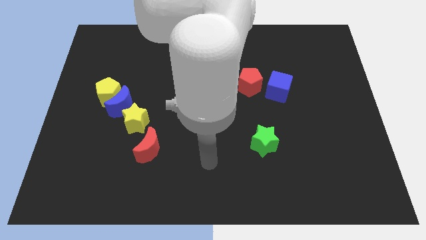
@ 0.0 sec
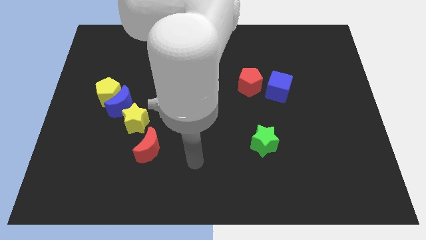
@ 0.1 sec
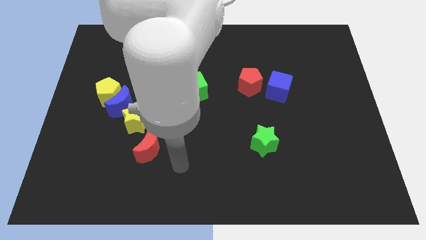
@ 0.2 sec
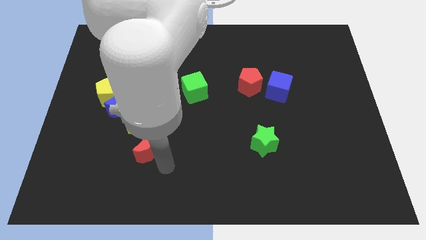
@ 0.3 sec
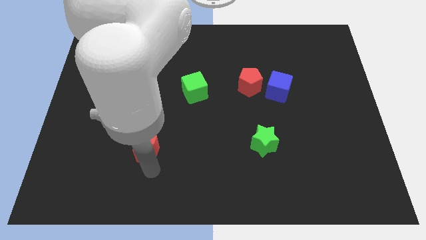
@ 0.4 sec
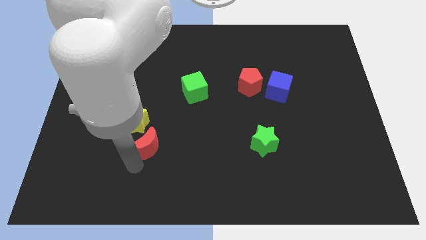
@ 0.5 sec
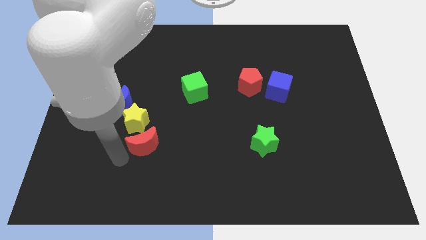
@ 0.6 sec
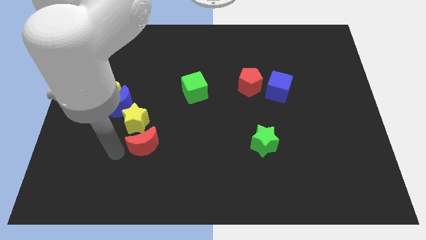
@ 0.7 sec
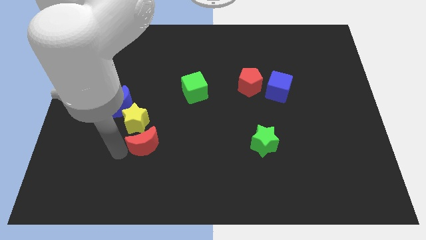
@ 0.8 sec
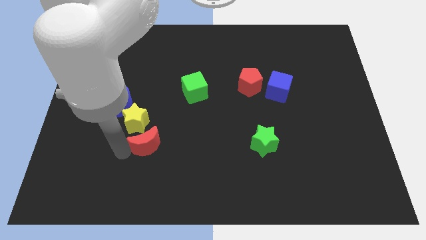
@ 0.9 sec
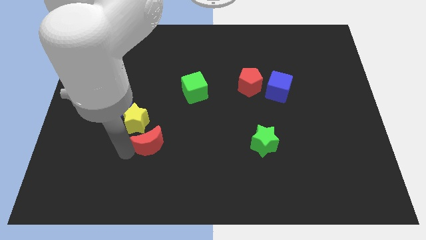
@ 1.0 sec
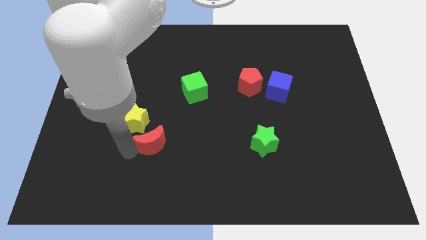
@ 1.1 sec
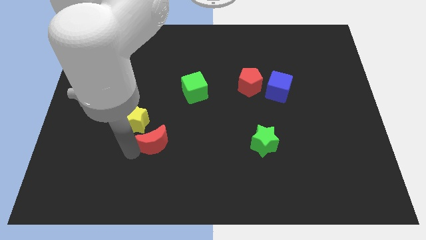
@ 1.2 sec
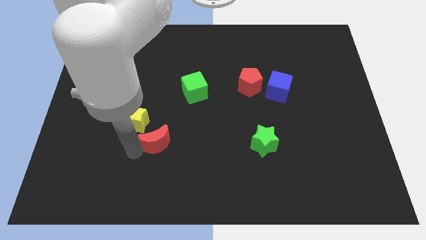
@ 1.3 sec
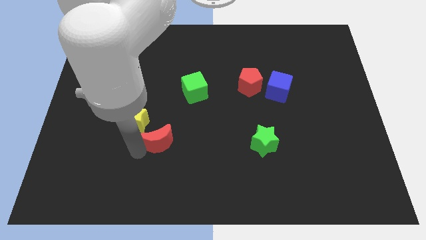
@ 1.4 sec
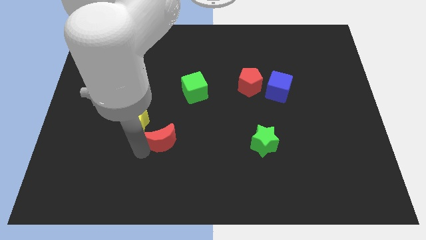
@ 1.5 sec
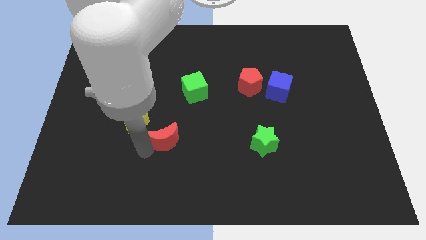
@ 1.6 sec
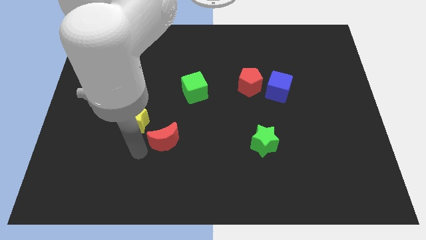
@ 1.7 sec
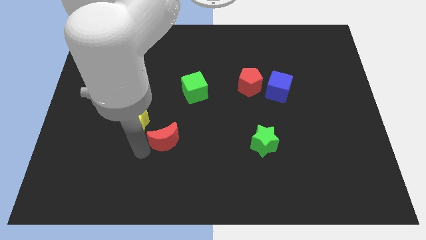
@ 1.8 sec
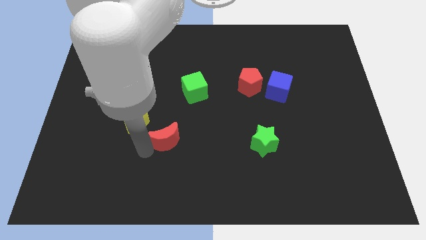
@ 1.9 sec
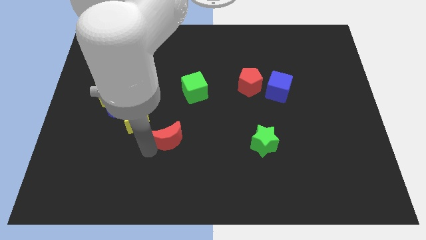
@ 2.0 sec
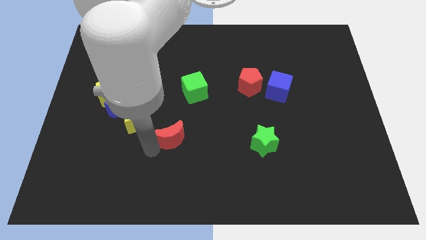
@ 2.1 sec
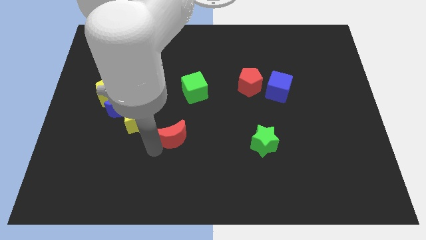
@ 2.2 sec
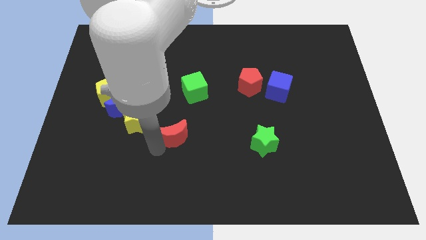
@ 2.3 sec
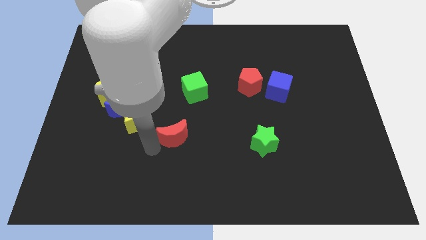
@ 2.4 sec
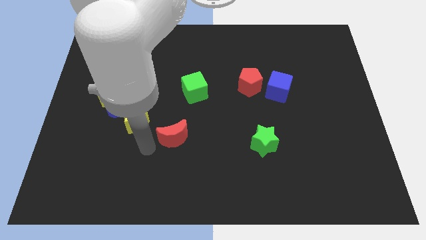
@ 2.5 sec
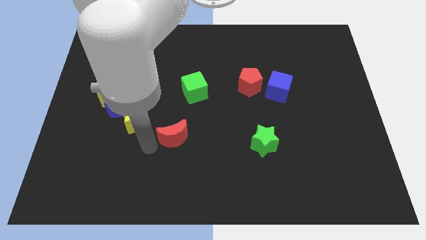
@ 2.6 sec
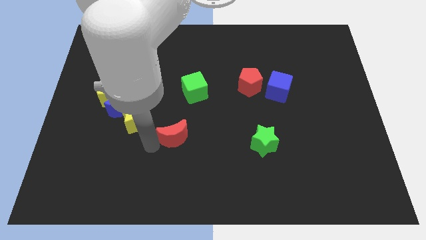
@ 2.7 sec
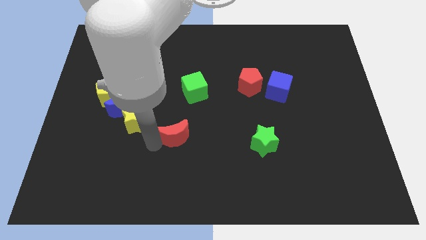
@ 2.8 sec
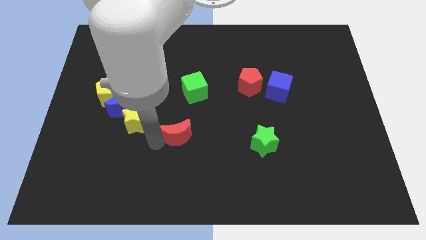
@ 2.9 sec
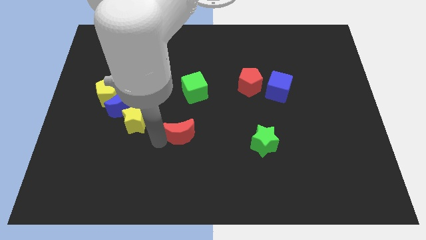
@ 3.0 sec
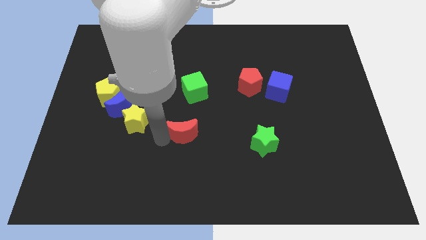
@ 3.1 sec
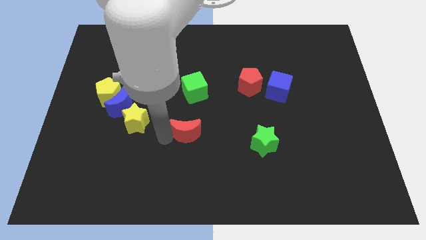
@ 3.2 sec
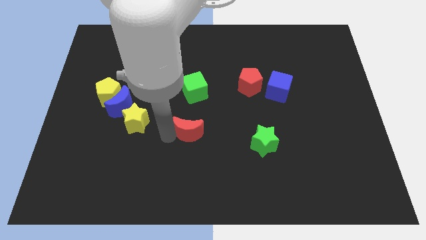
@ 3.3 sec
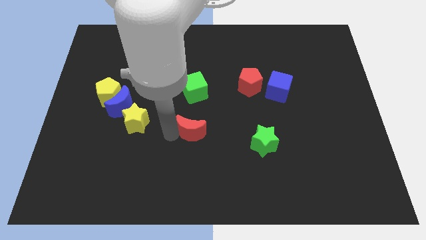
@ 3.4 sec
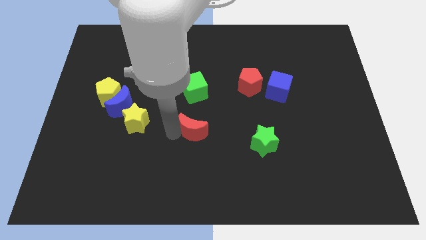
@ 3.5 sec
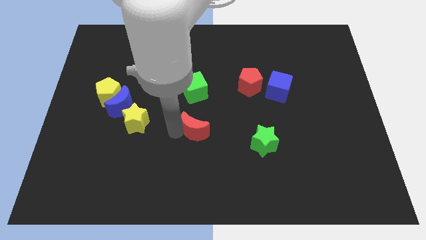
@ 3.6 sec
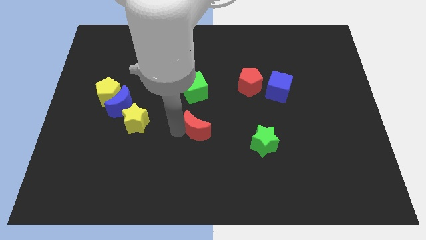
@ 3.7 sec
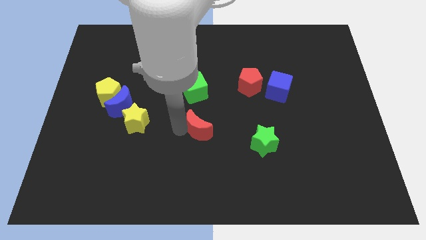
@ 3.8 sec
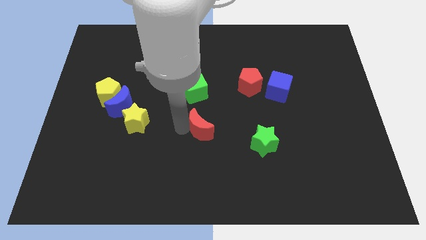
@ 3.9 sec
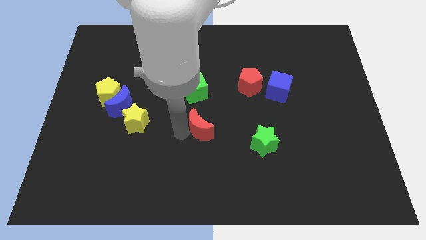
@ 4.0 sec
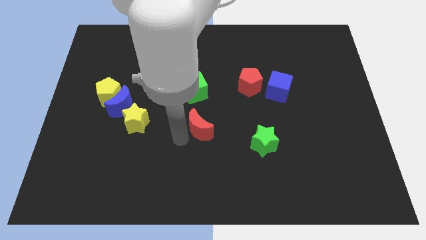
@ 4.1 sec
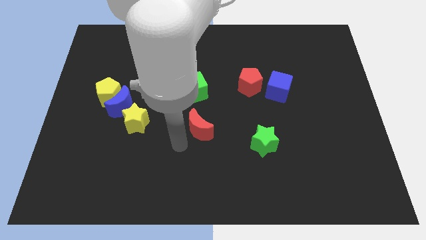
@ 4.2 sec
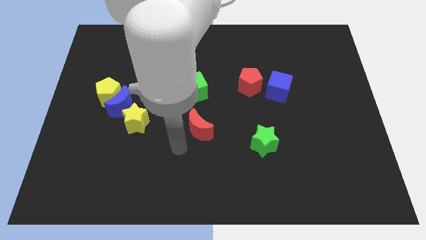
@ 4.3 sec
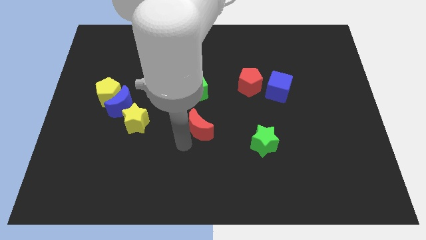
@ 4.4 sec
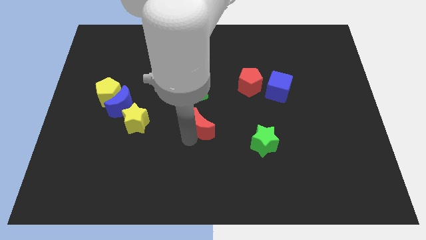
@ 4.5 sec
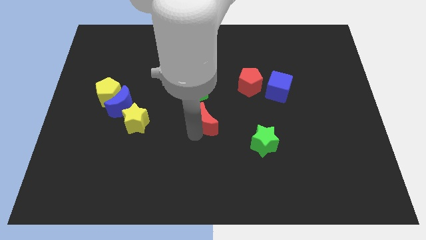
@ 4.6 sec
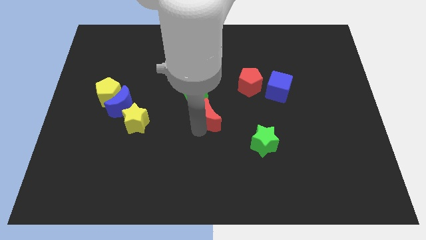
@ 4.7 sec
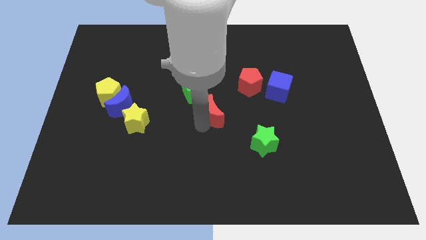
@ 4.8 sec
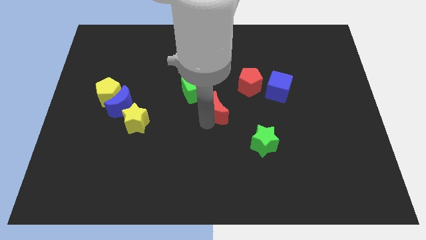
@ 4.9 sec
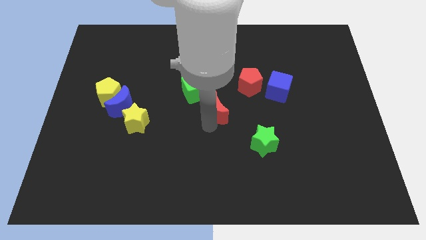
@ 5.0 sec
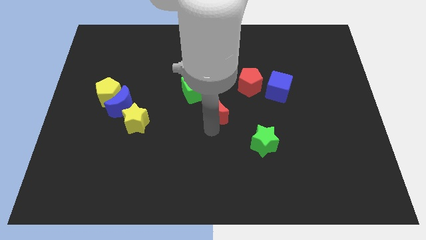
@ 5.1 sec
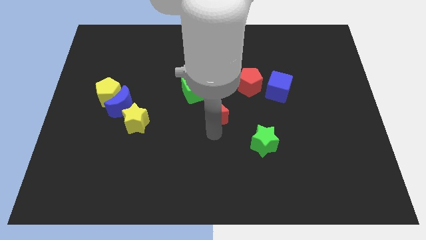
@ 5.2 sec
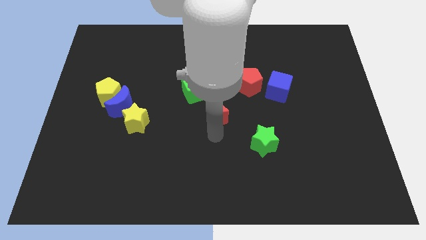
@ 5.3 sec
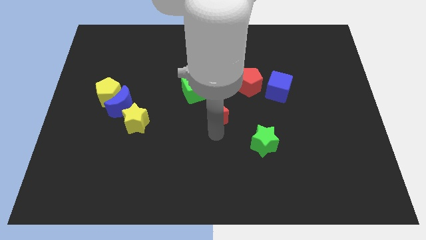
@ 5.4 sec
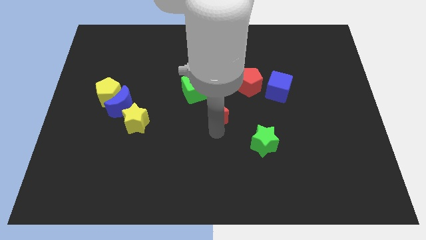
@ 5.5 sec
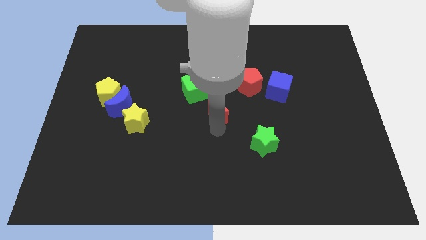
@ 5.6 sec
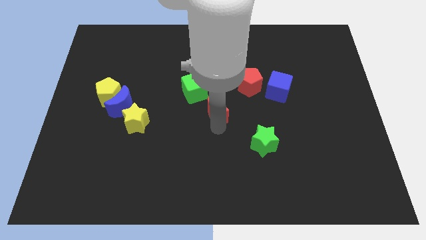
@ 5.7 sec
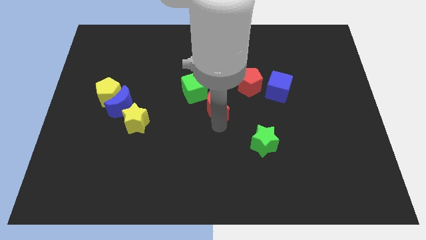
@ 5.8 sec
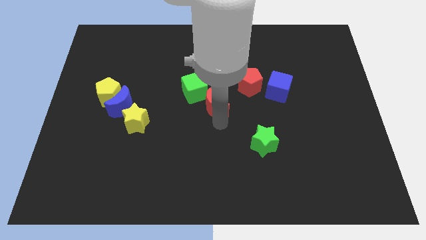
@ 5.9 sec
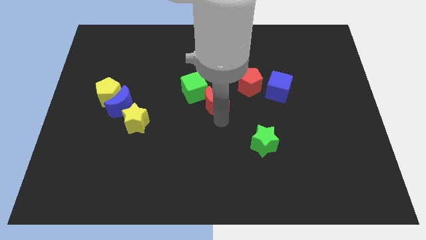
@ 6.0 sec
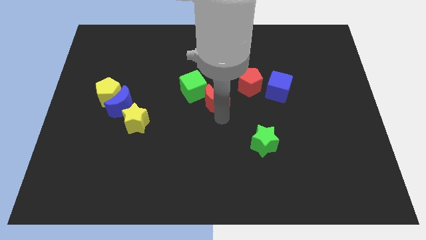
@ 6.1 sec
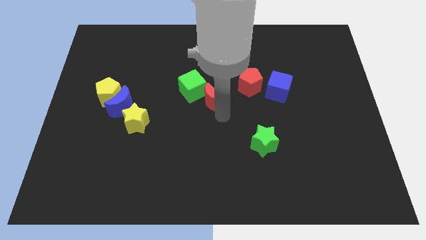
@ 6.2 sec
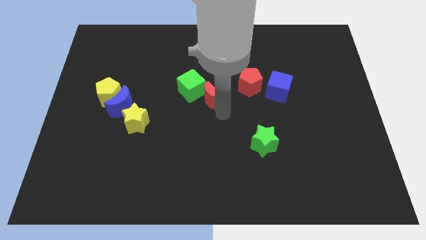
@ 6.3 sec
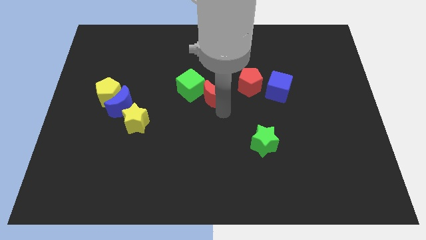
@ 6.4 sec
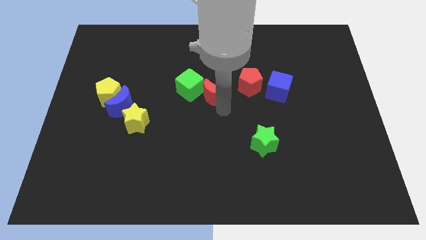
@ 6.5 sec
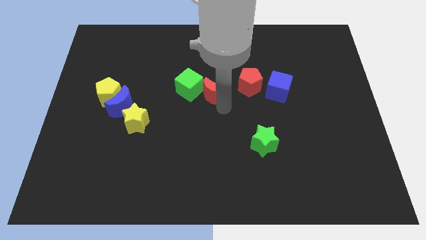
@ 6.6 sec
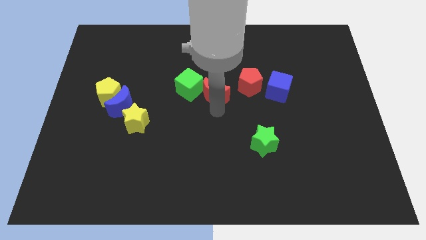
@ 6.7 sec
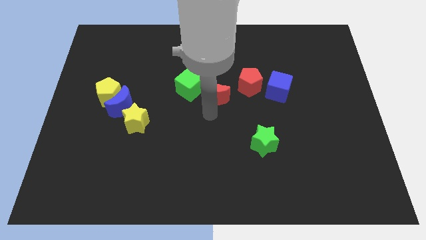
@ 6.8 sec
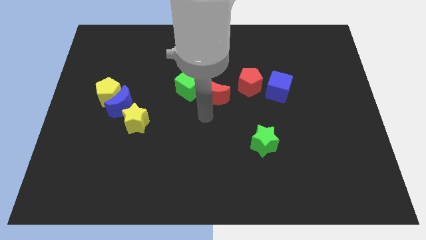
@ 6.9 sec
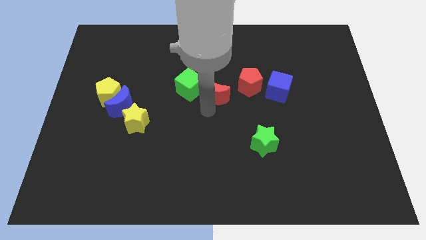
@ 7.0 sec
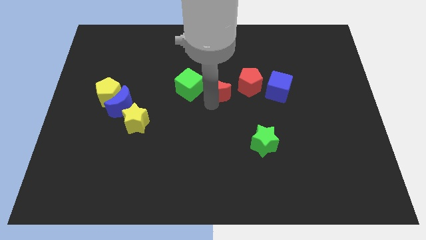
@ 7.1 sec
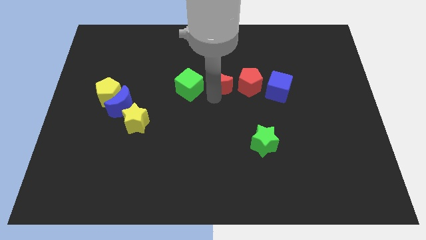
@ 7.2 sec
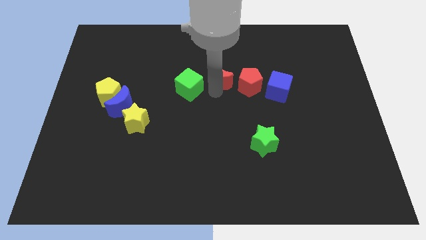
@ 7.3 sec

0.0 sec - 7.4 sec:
slide the red moon diagonally up and to the left of the red pentagon
